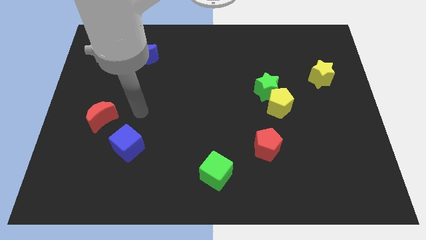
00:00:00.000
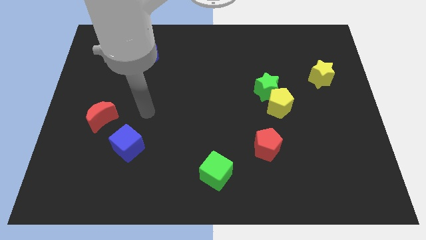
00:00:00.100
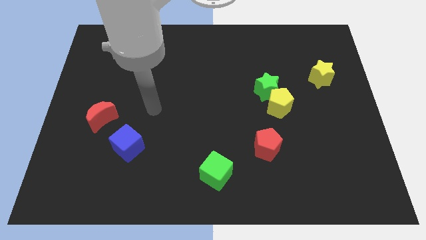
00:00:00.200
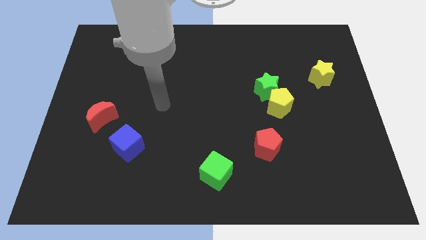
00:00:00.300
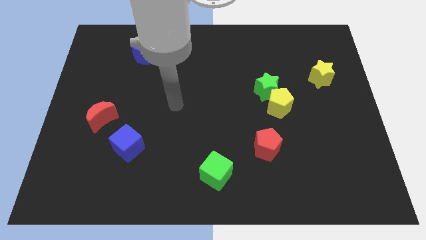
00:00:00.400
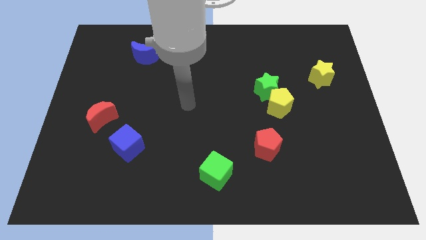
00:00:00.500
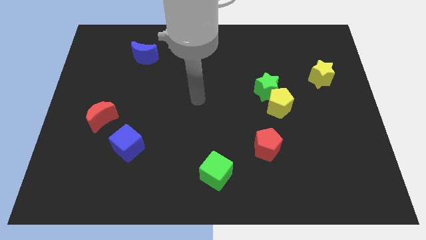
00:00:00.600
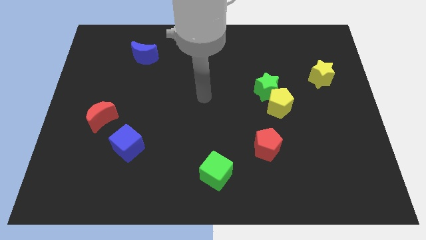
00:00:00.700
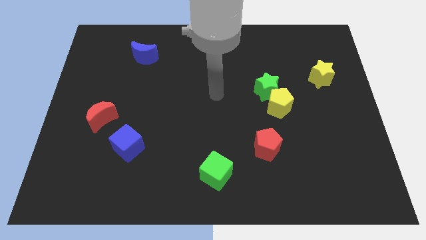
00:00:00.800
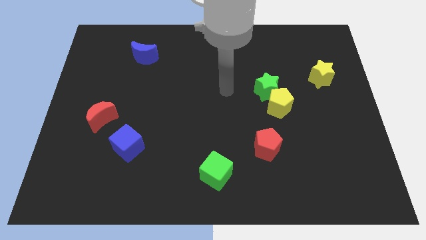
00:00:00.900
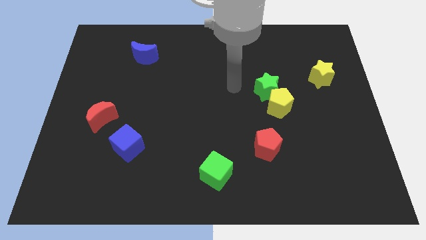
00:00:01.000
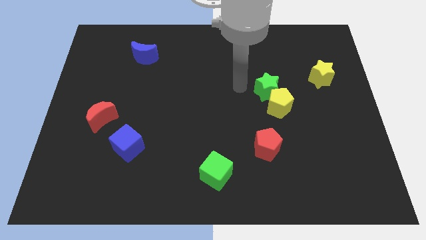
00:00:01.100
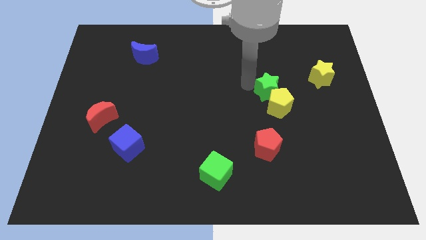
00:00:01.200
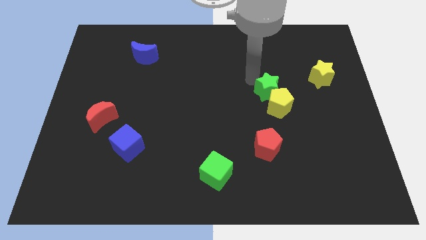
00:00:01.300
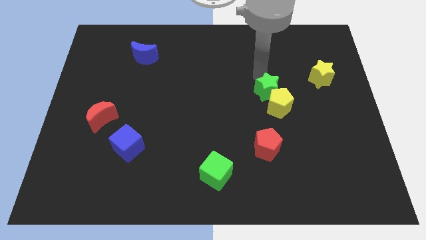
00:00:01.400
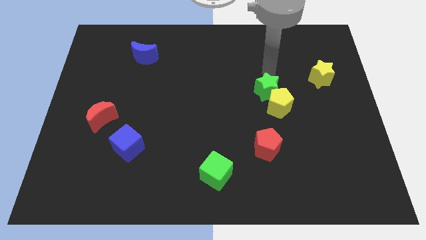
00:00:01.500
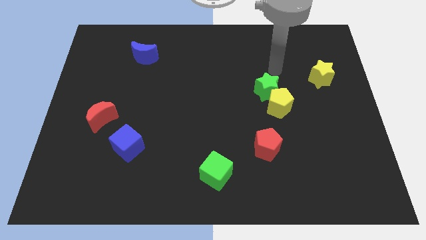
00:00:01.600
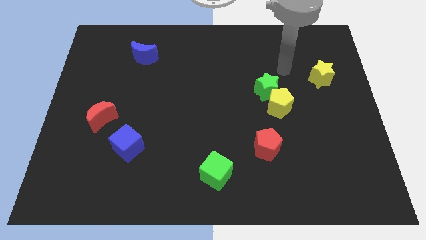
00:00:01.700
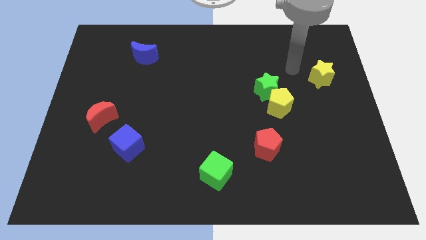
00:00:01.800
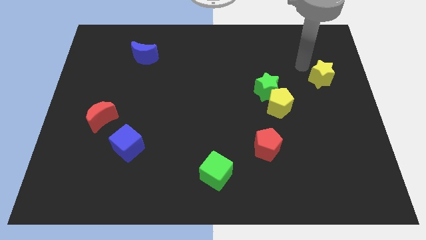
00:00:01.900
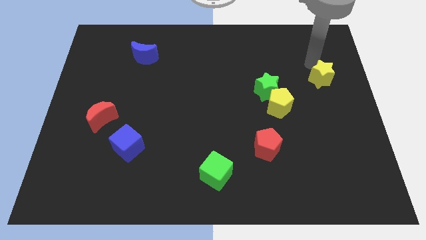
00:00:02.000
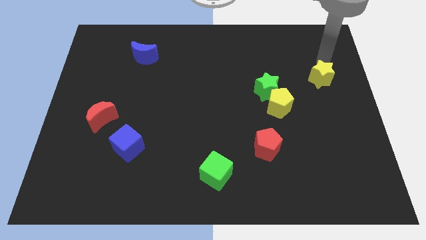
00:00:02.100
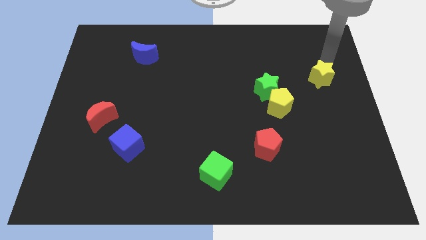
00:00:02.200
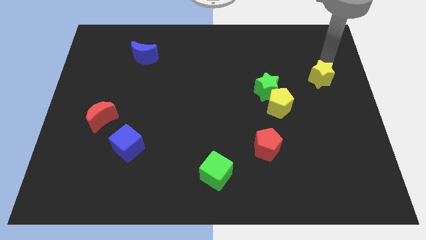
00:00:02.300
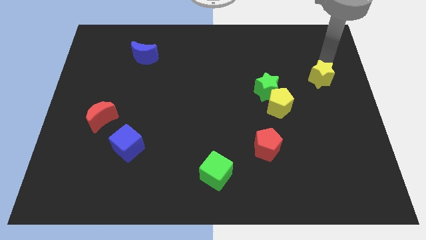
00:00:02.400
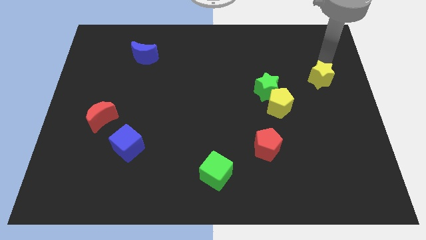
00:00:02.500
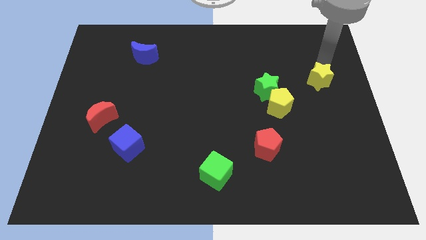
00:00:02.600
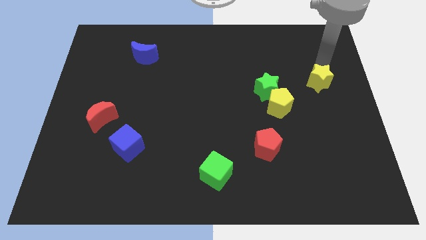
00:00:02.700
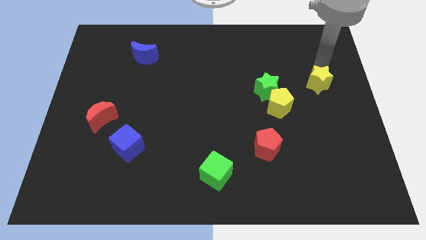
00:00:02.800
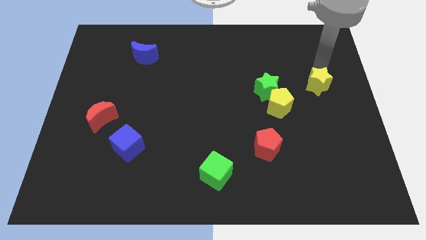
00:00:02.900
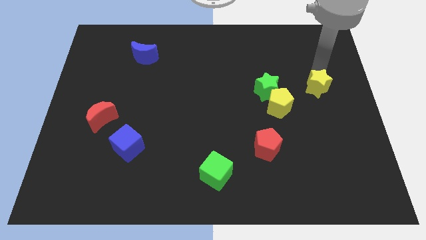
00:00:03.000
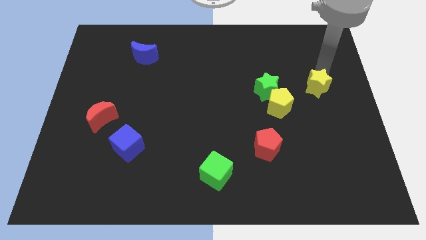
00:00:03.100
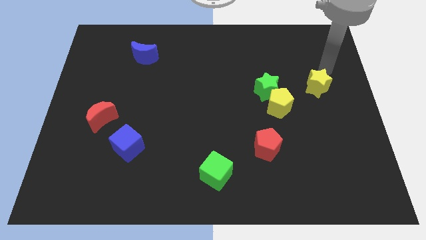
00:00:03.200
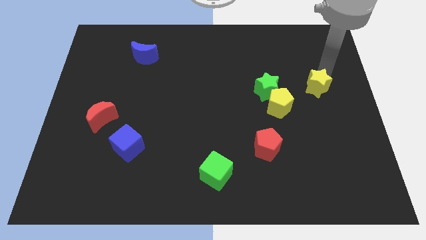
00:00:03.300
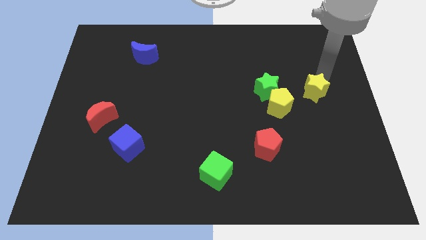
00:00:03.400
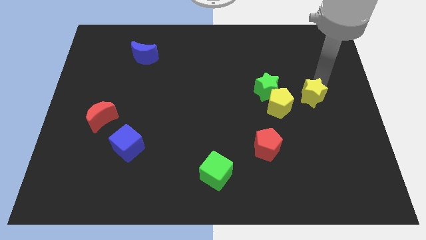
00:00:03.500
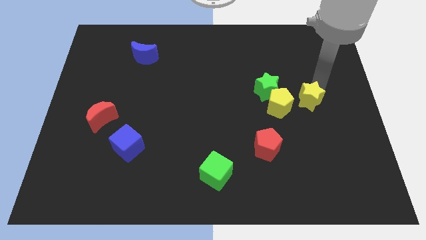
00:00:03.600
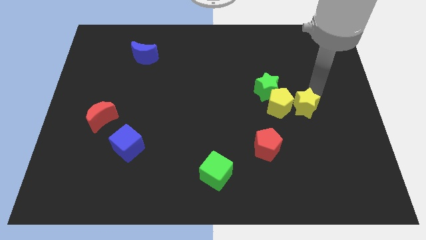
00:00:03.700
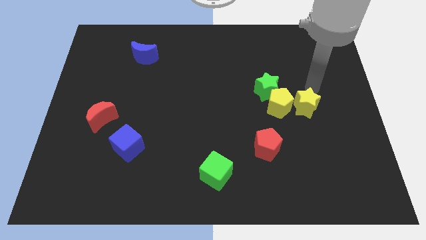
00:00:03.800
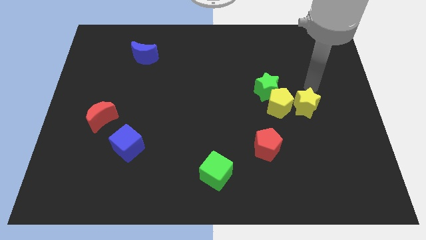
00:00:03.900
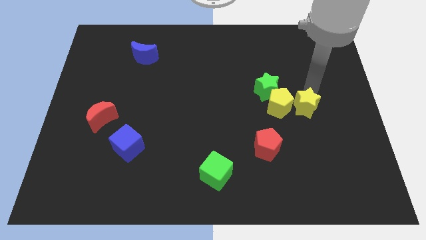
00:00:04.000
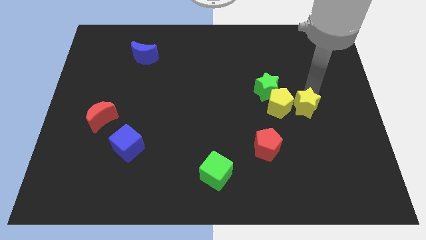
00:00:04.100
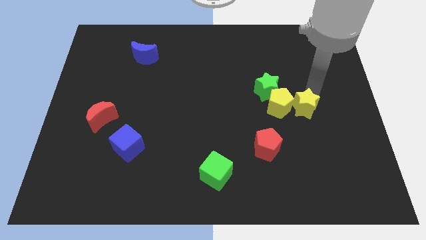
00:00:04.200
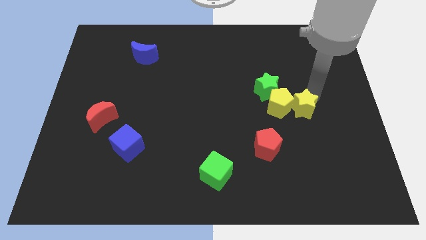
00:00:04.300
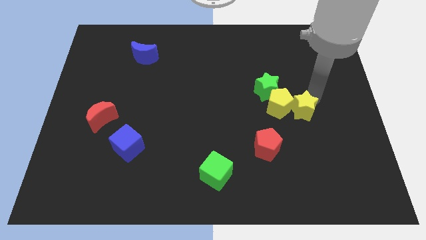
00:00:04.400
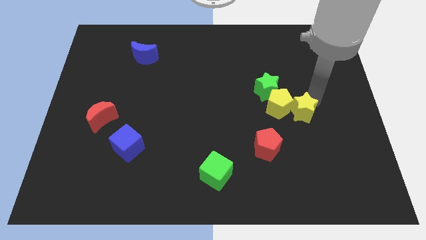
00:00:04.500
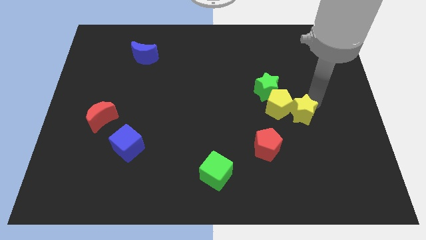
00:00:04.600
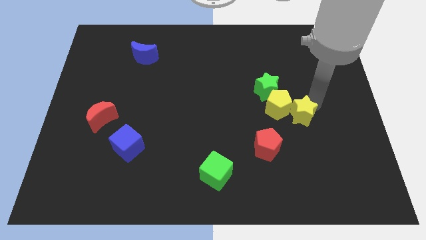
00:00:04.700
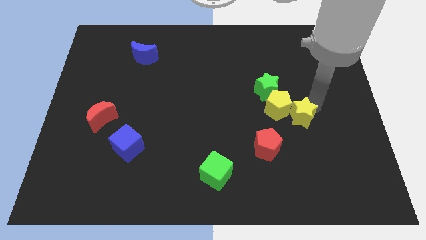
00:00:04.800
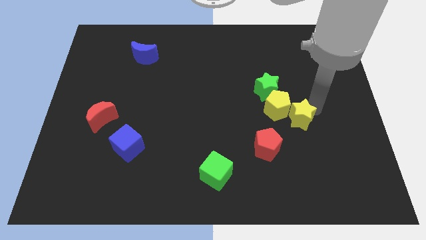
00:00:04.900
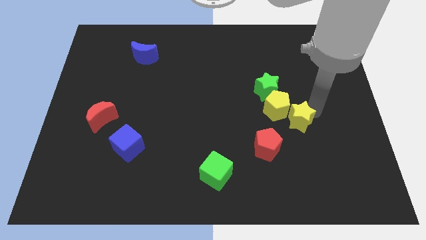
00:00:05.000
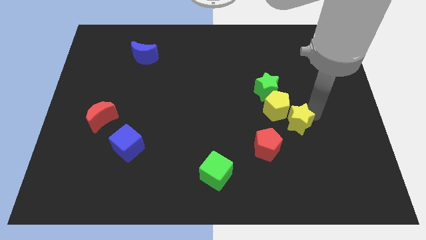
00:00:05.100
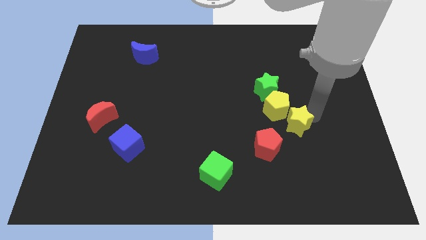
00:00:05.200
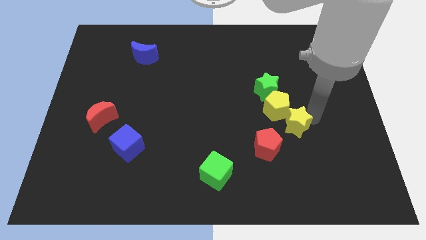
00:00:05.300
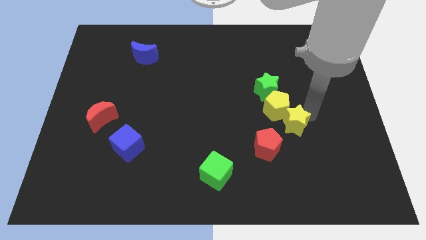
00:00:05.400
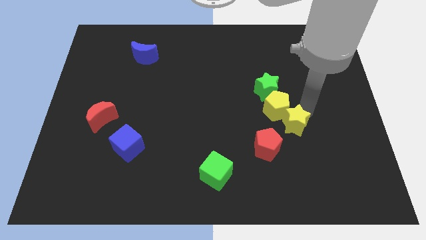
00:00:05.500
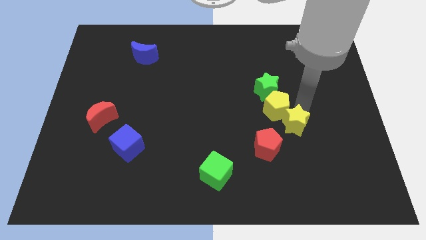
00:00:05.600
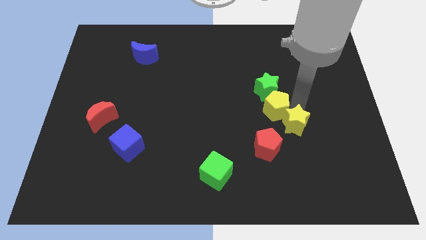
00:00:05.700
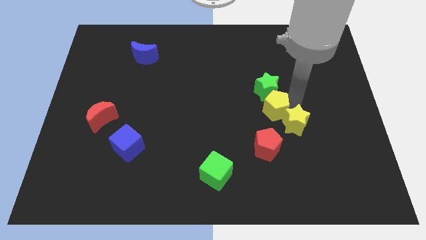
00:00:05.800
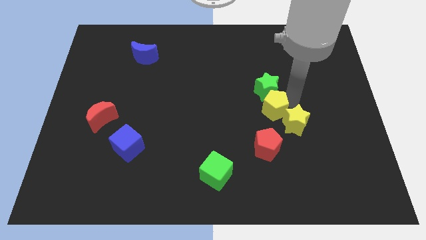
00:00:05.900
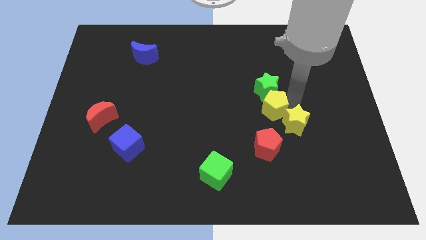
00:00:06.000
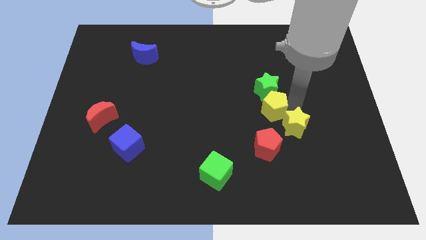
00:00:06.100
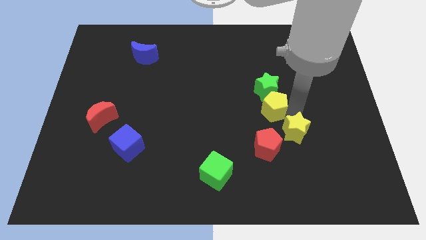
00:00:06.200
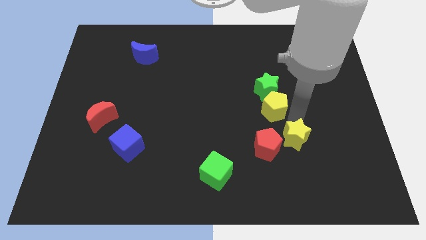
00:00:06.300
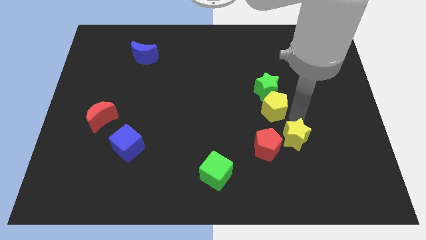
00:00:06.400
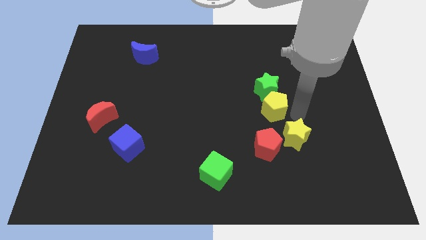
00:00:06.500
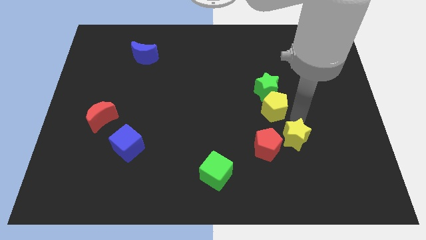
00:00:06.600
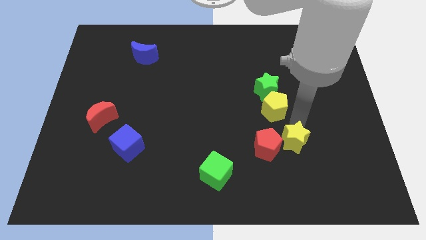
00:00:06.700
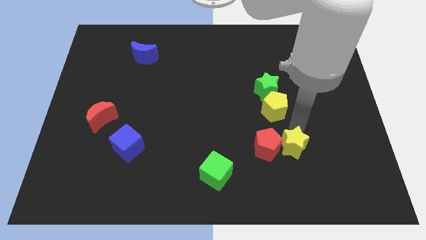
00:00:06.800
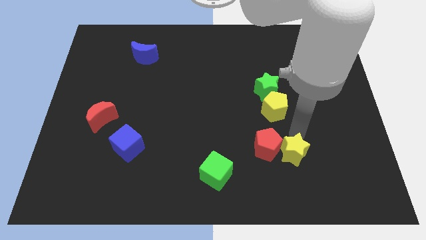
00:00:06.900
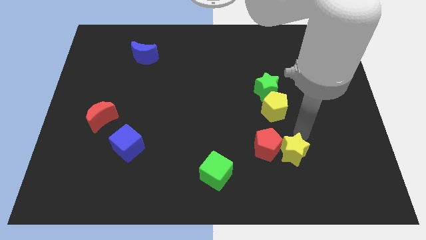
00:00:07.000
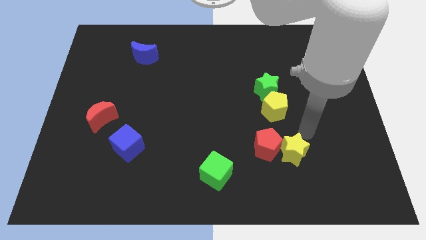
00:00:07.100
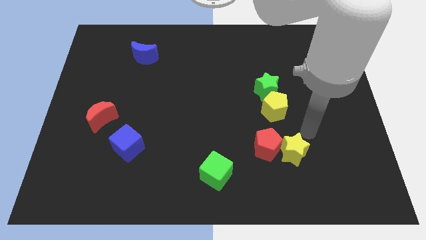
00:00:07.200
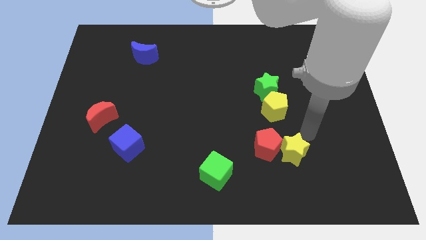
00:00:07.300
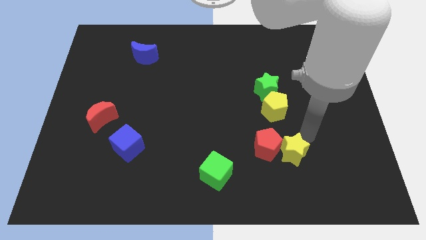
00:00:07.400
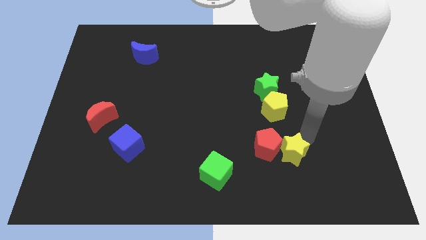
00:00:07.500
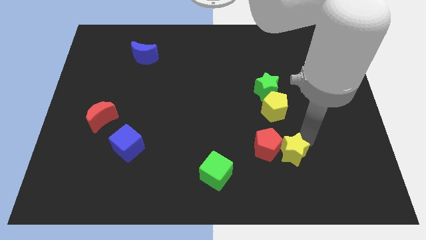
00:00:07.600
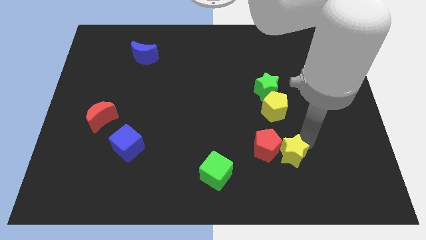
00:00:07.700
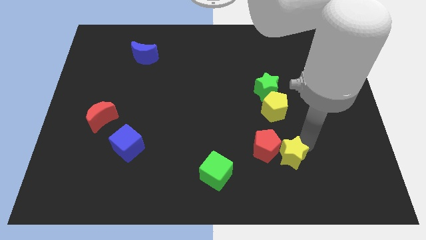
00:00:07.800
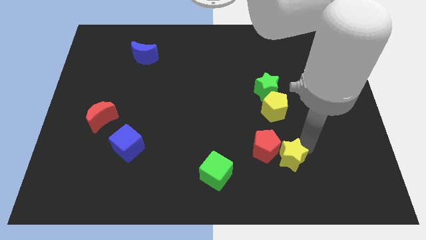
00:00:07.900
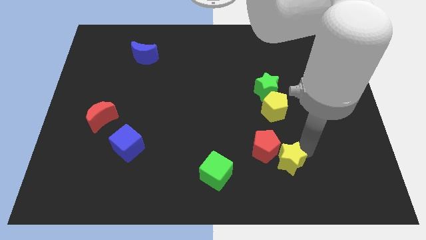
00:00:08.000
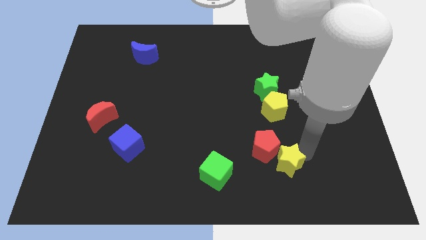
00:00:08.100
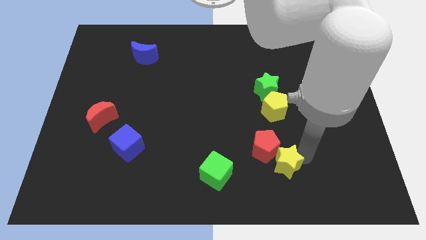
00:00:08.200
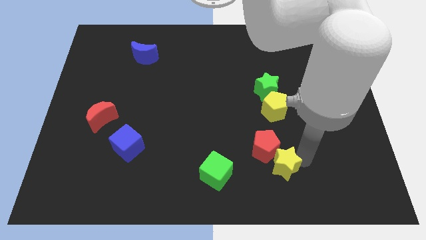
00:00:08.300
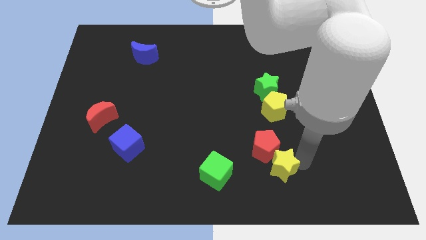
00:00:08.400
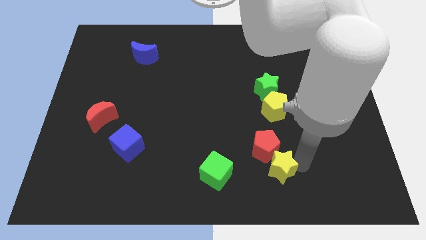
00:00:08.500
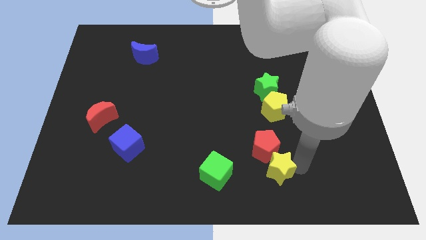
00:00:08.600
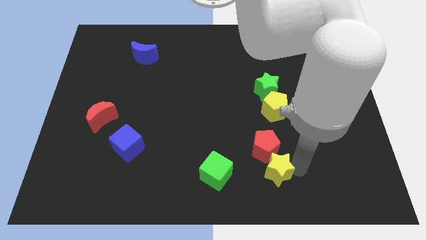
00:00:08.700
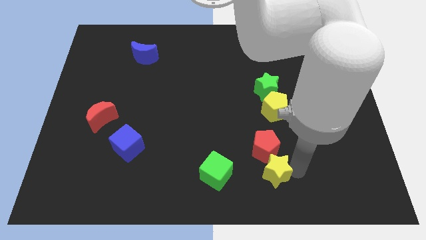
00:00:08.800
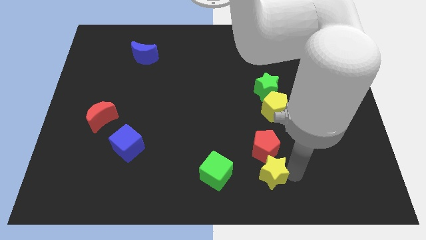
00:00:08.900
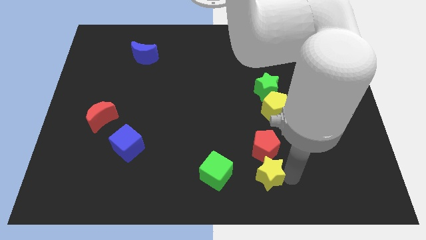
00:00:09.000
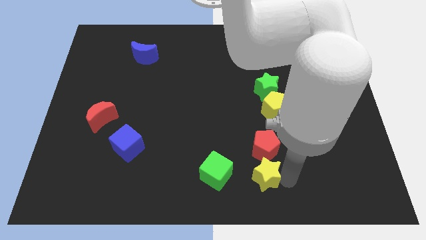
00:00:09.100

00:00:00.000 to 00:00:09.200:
push the yellow star to the bottom side
